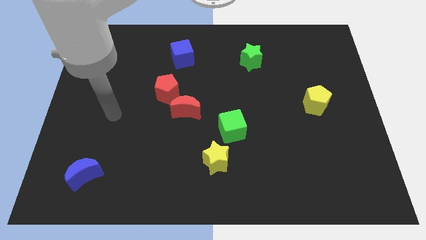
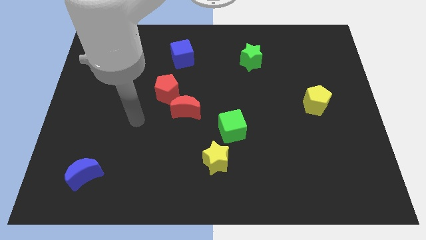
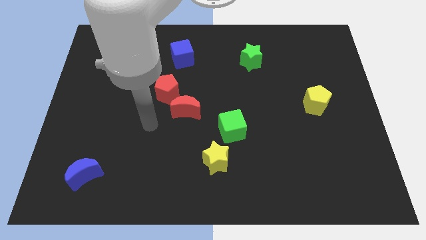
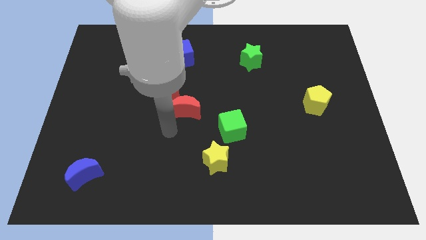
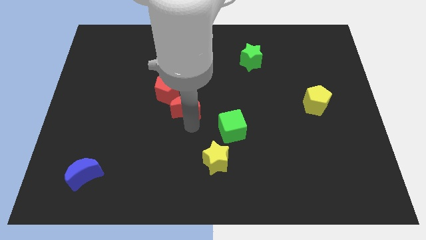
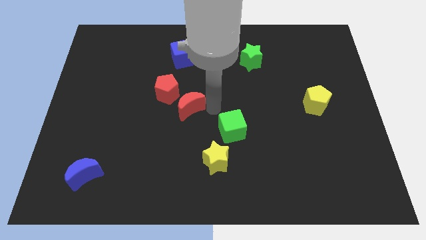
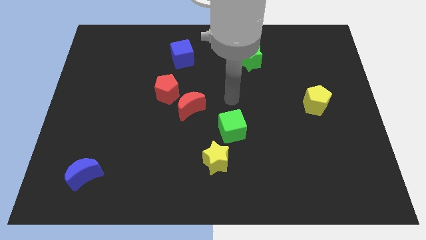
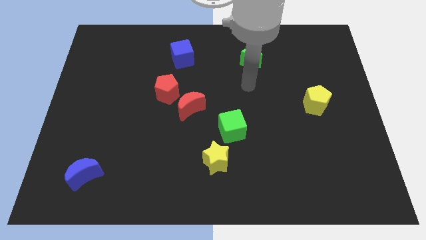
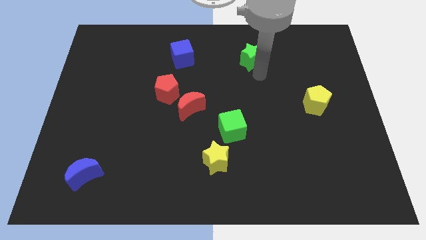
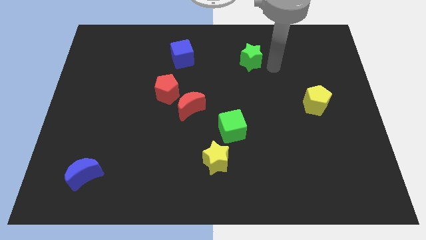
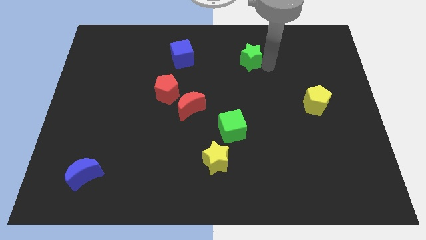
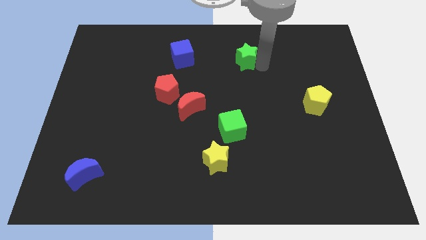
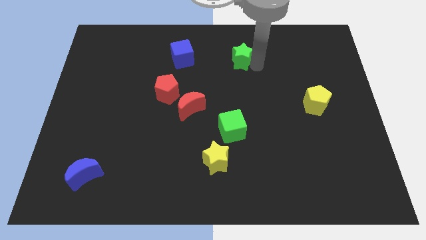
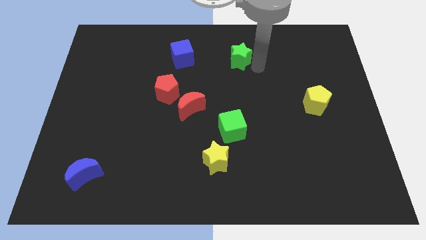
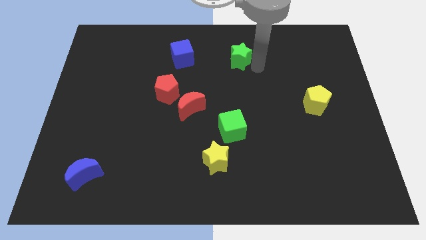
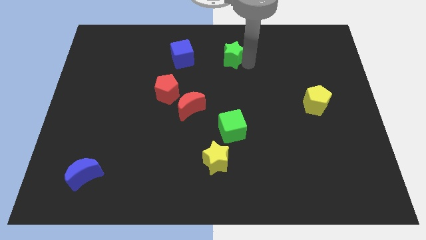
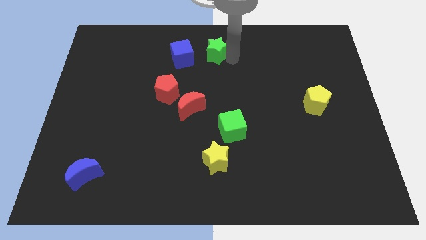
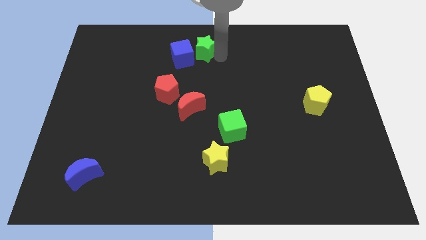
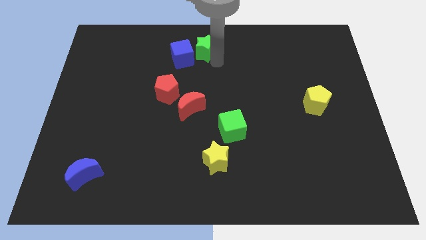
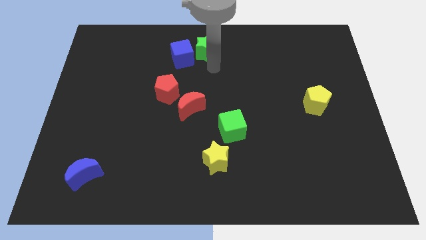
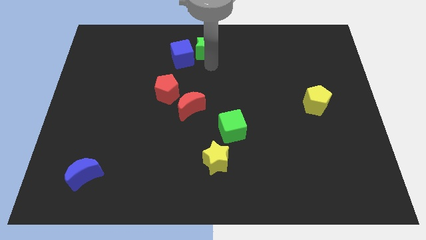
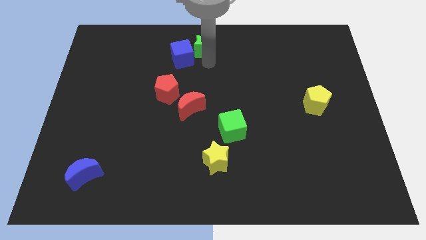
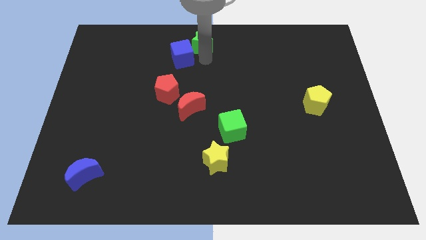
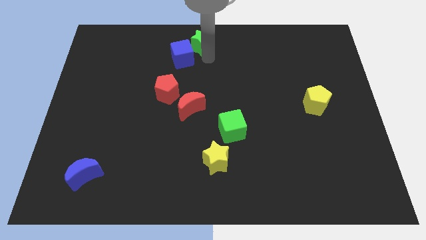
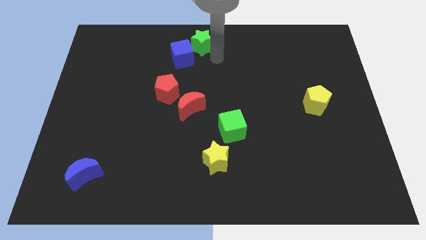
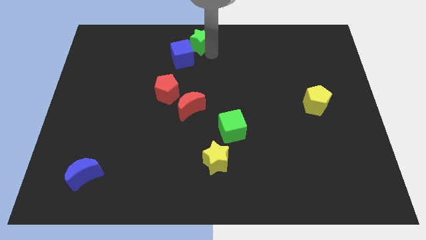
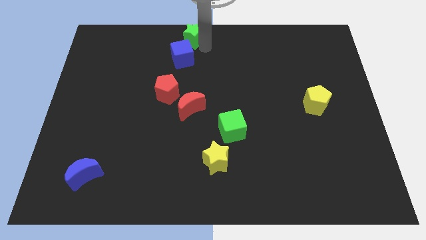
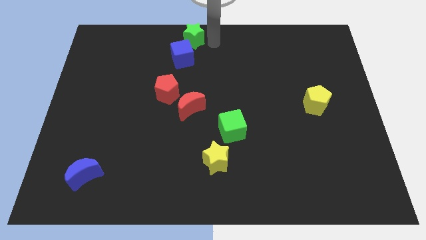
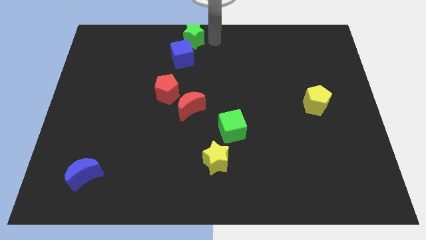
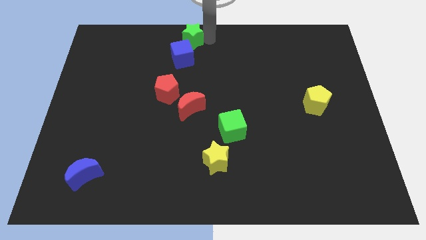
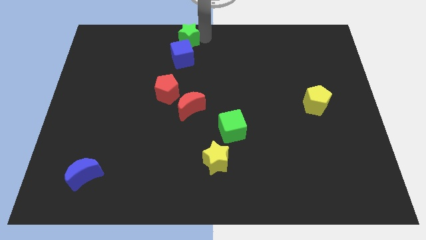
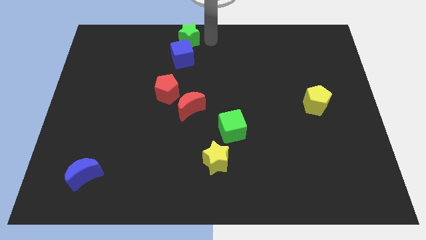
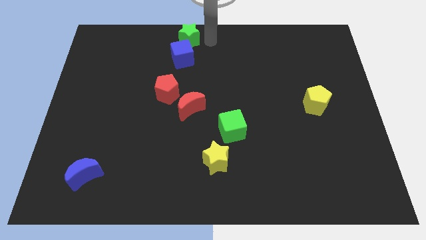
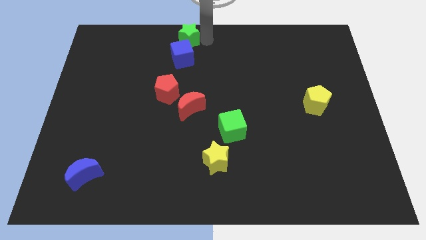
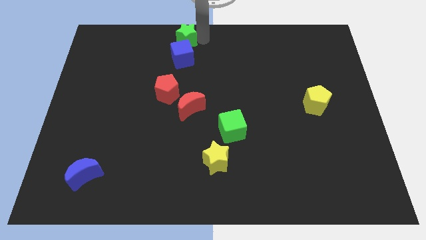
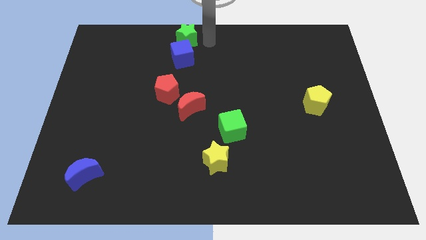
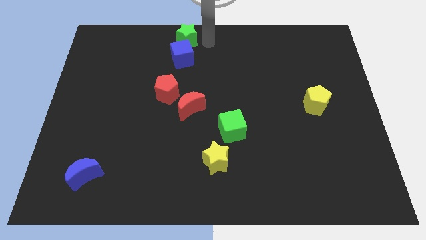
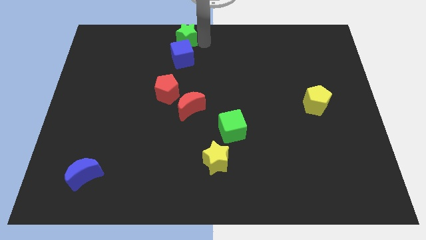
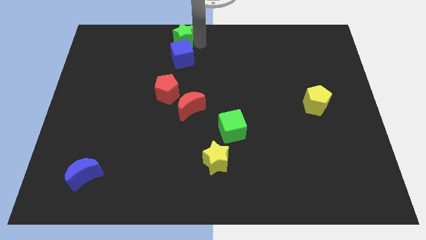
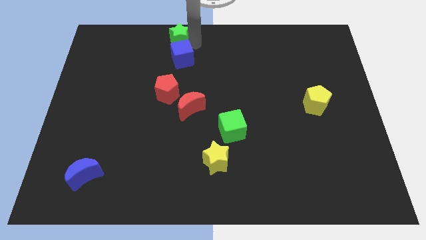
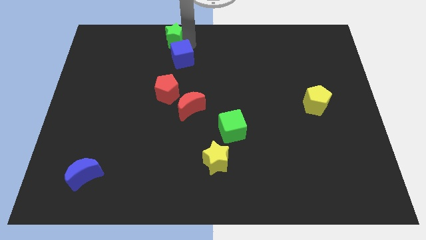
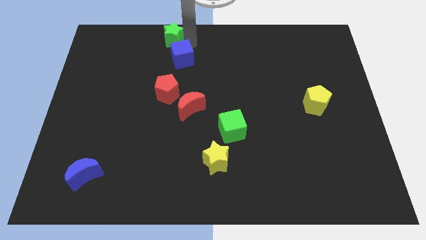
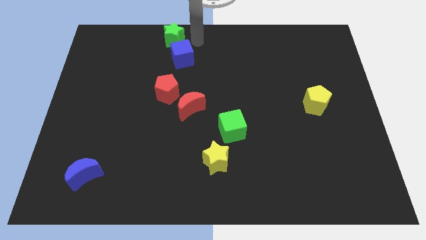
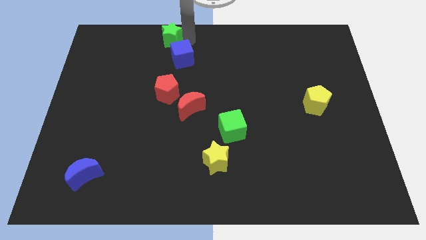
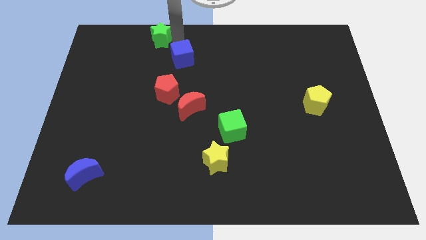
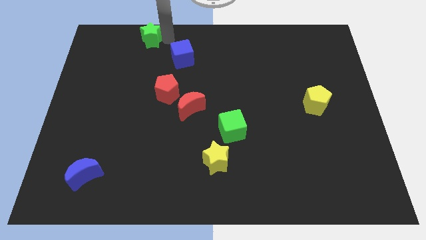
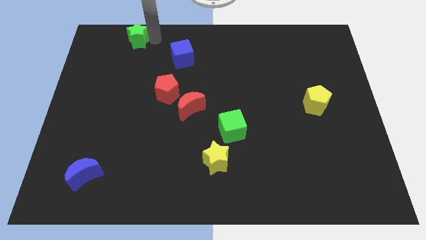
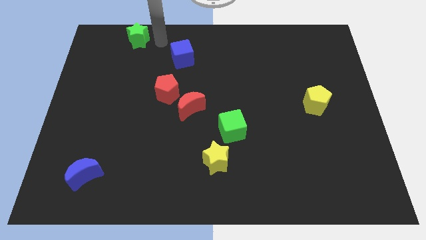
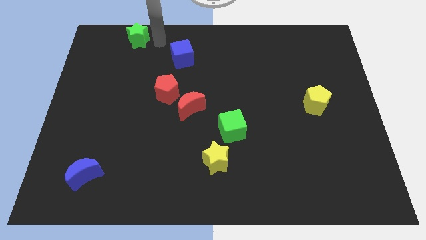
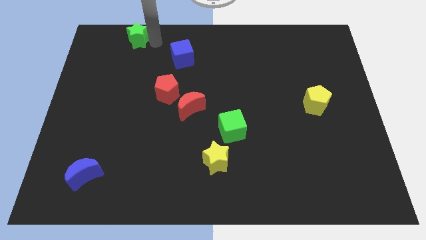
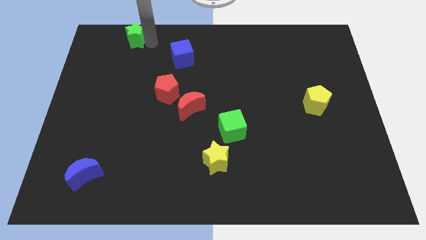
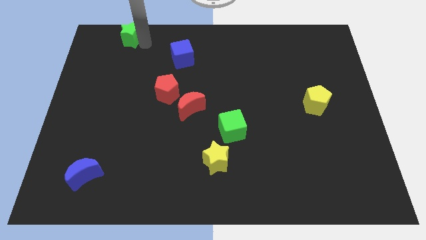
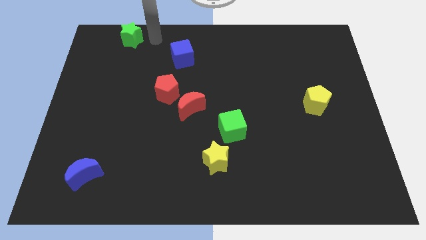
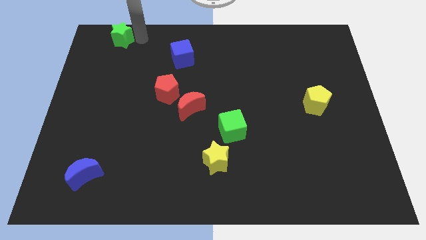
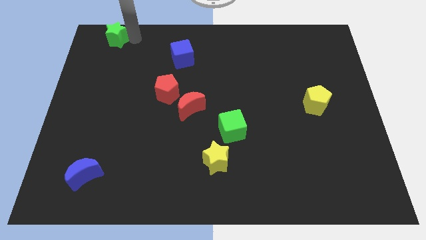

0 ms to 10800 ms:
push the green star to the top left of the board
